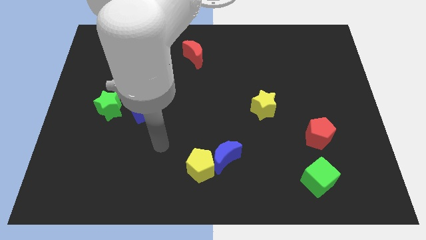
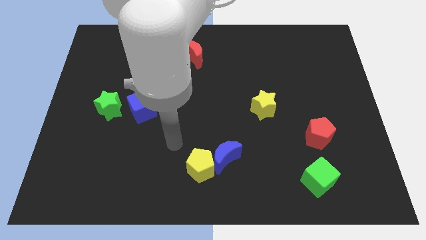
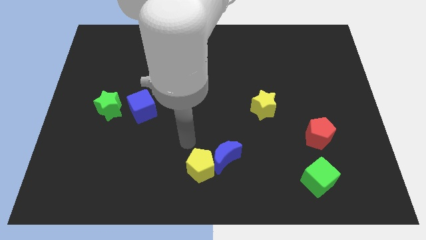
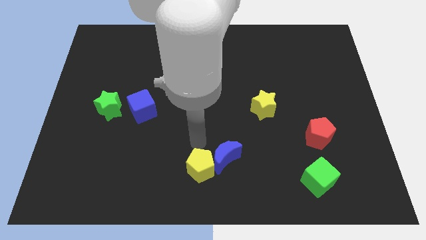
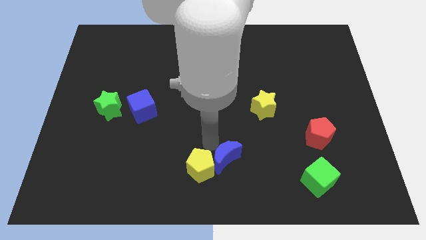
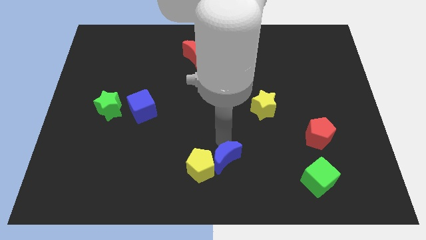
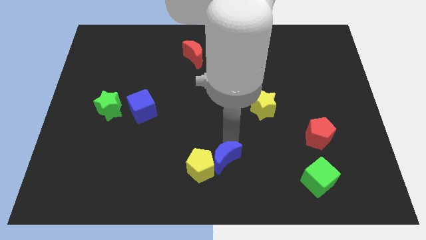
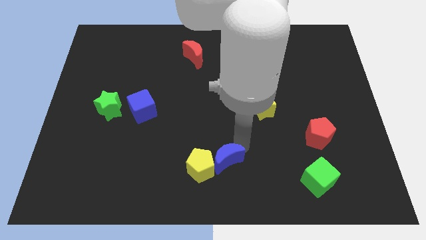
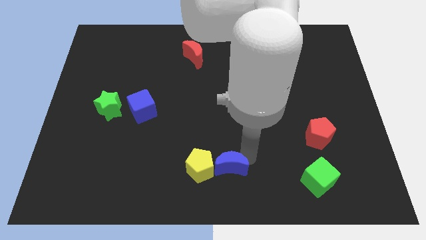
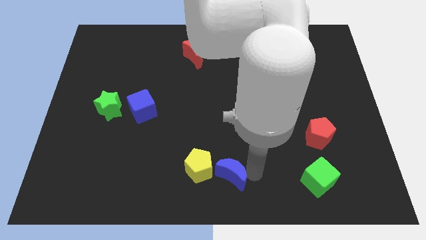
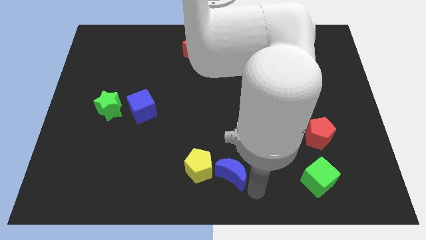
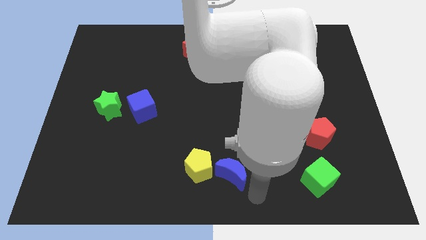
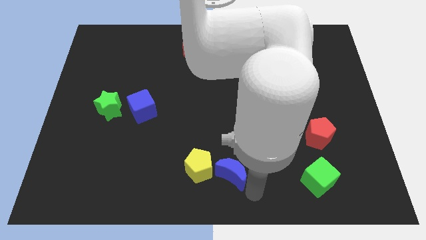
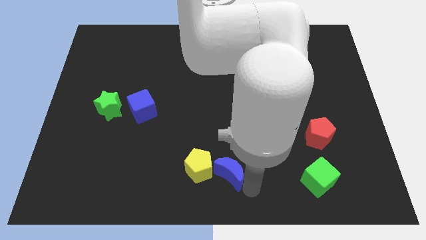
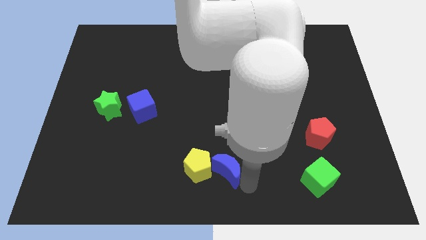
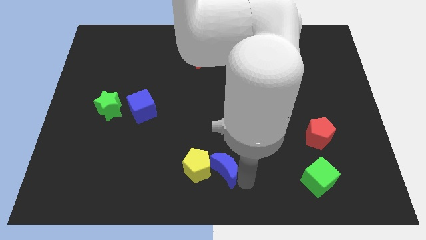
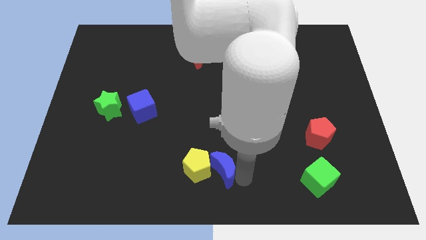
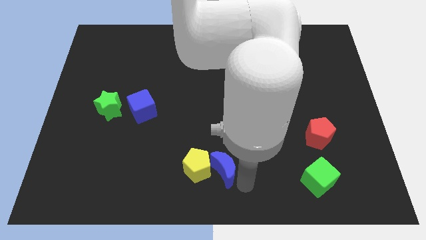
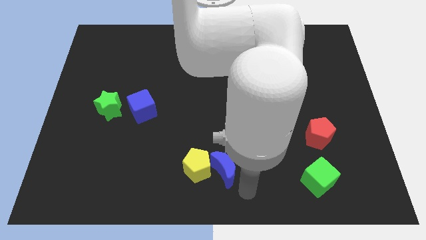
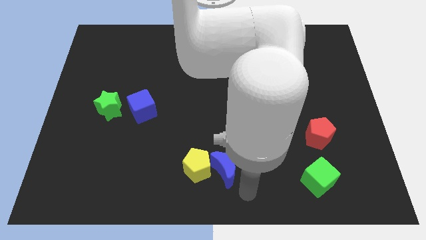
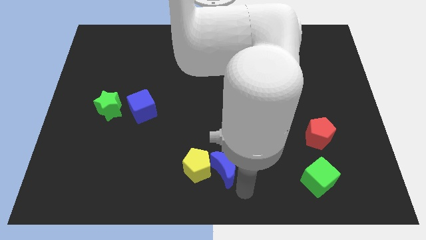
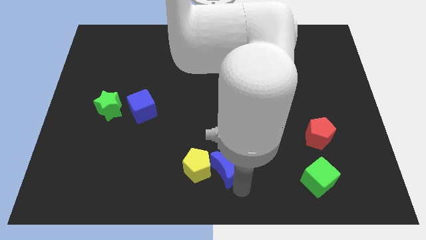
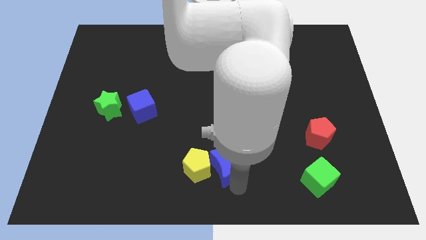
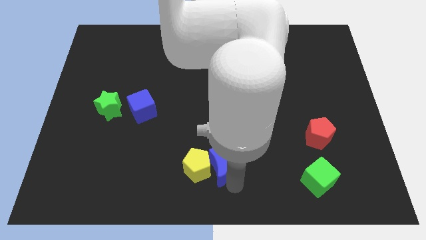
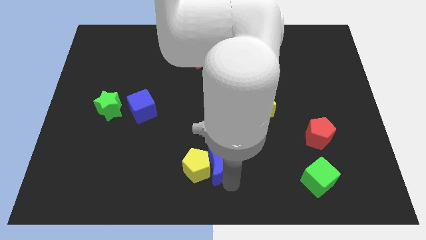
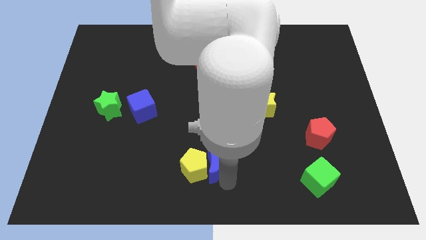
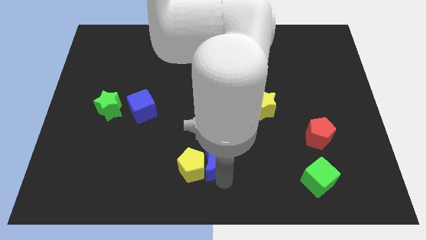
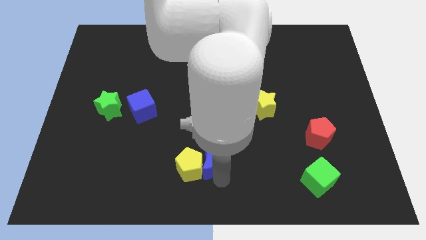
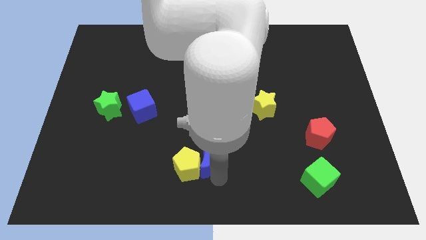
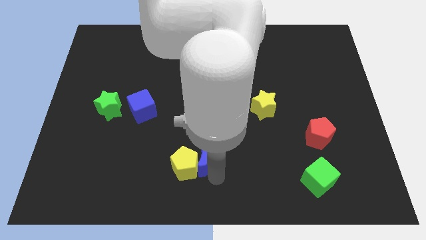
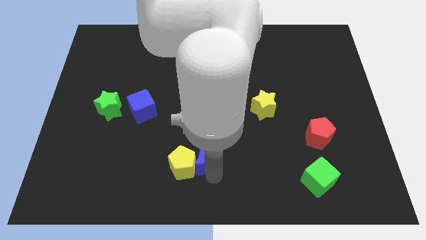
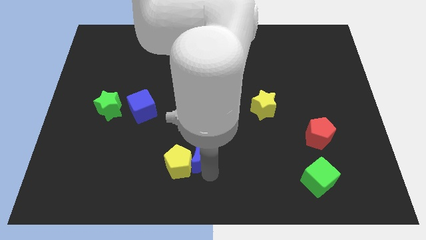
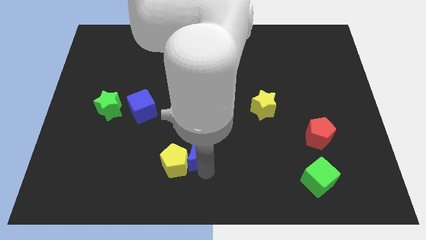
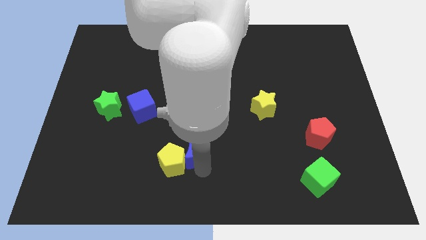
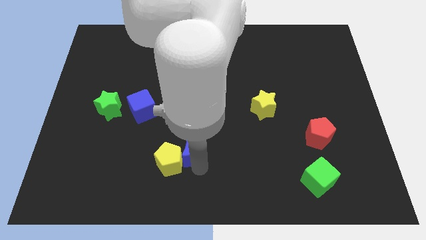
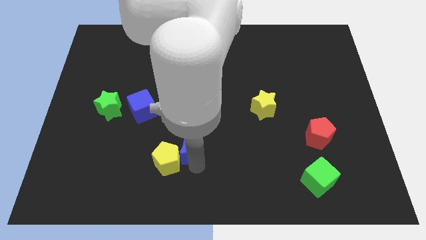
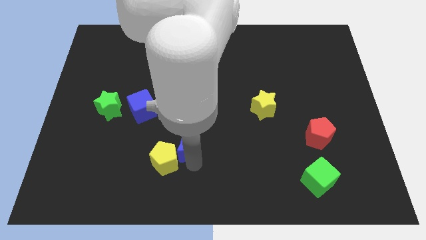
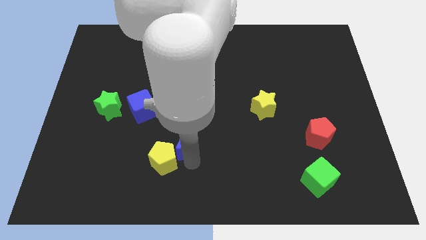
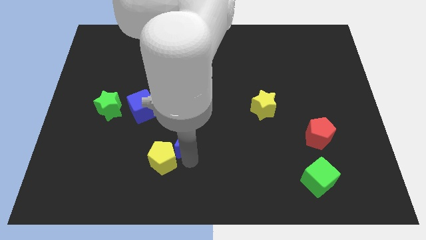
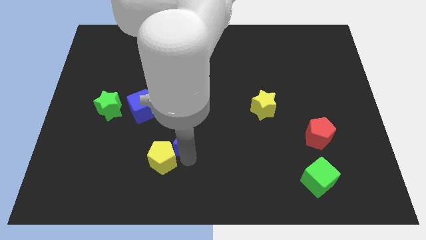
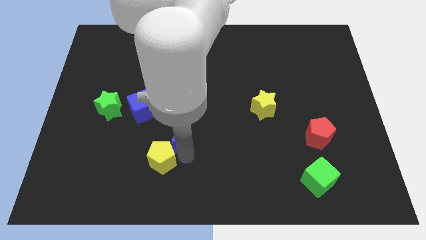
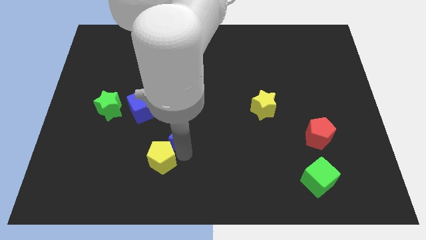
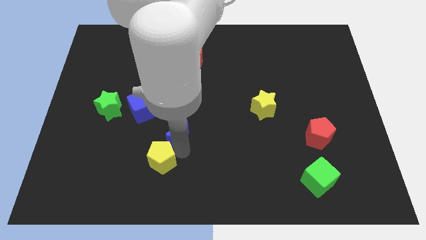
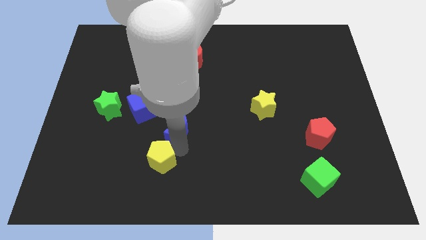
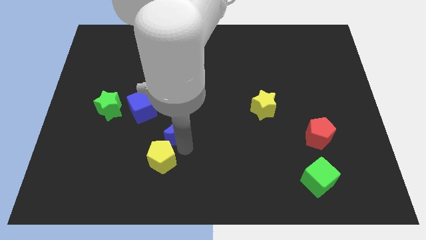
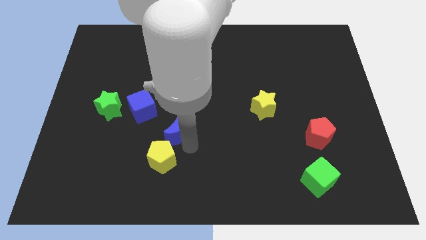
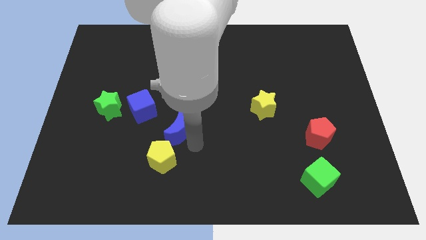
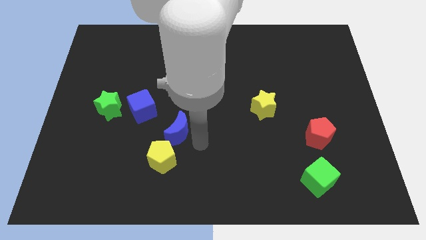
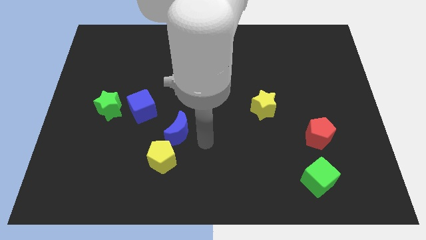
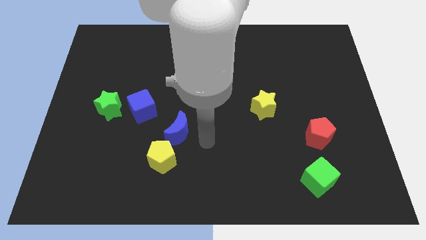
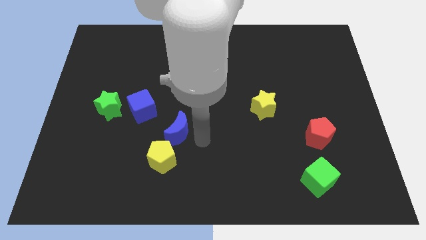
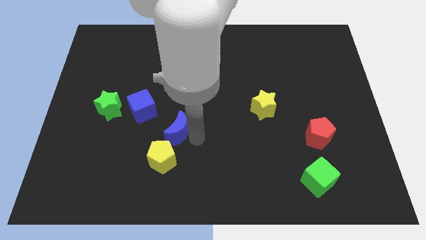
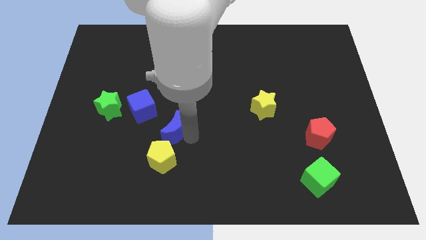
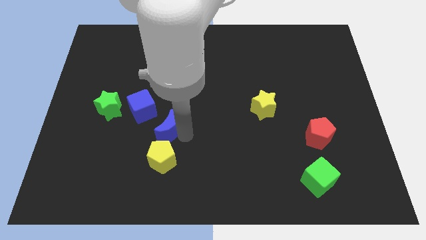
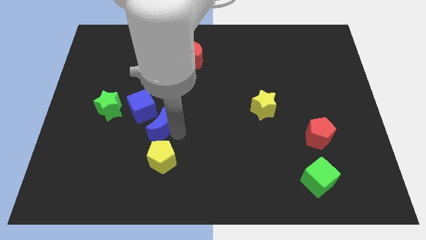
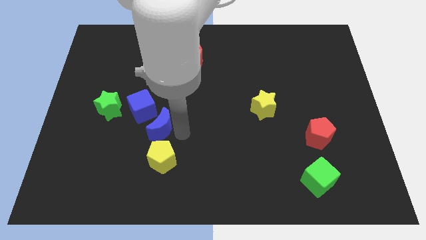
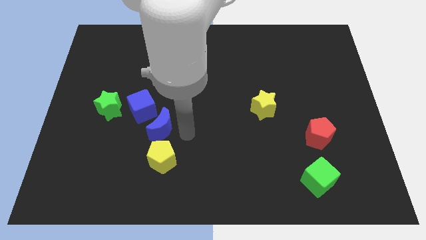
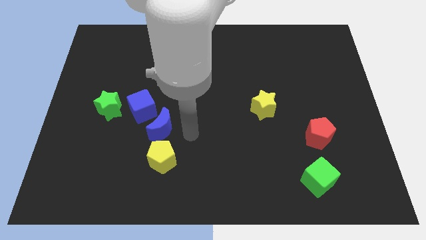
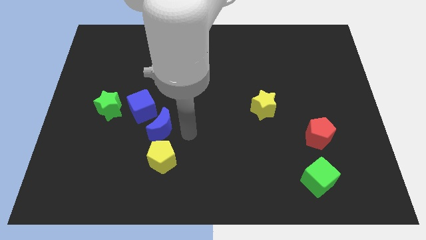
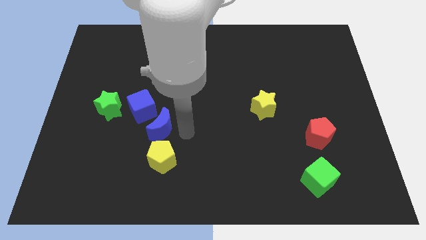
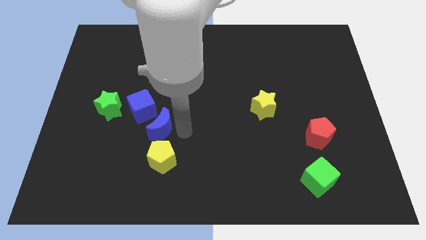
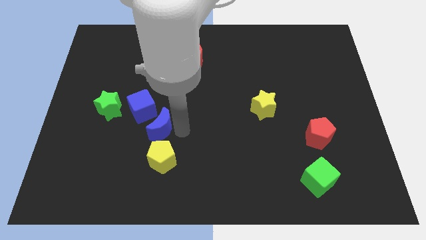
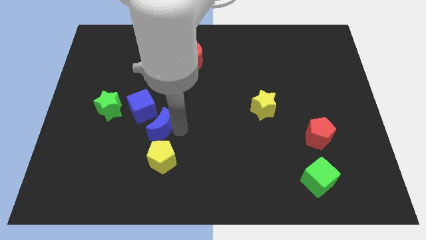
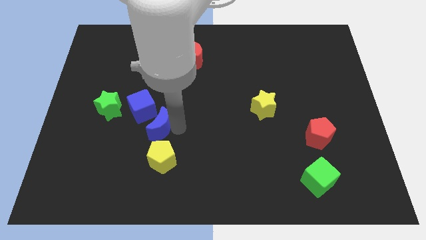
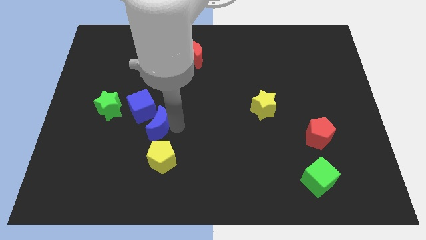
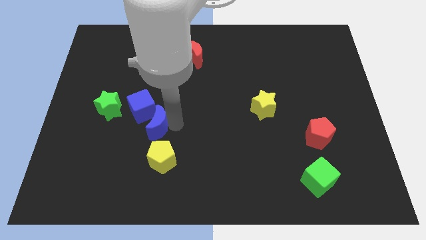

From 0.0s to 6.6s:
slide the blue moon to the right of the green star

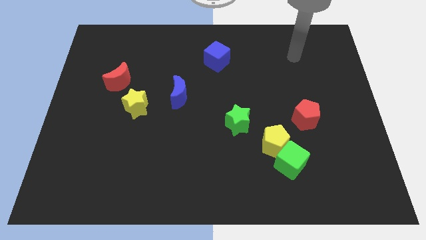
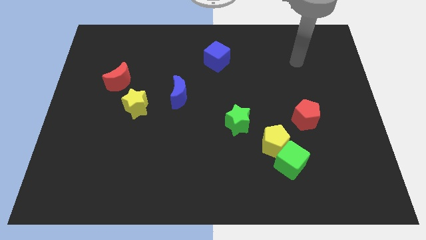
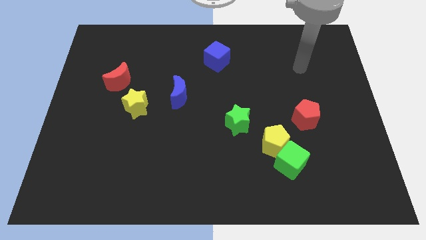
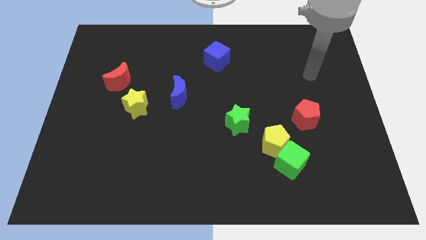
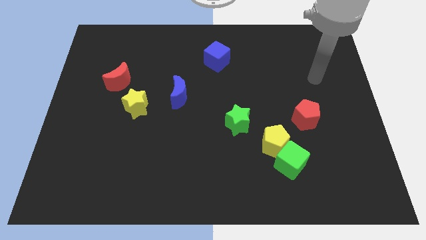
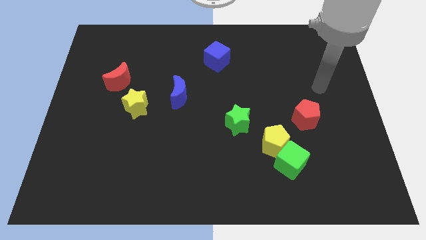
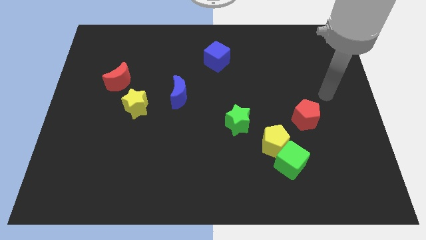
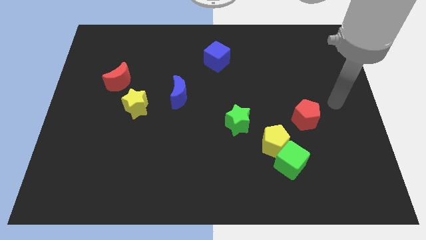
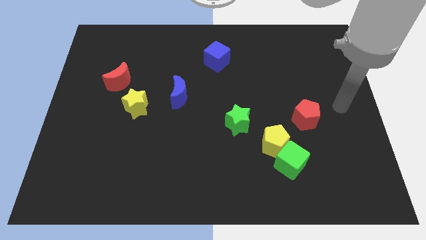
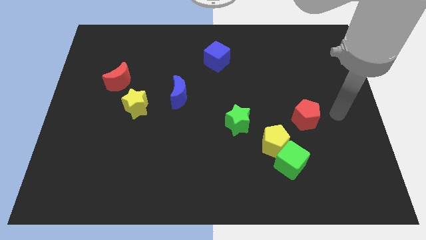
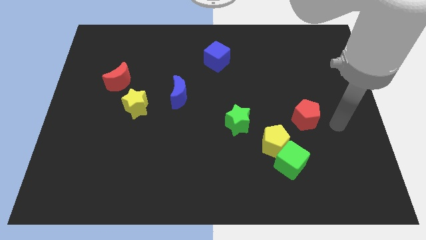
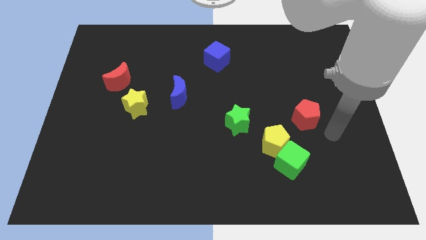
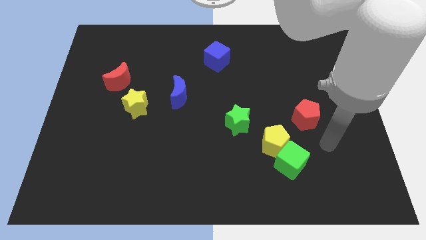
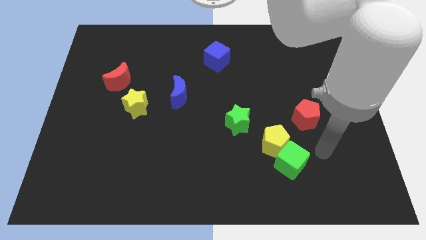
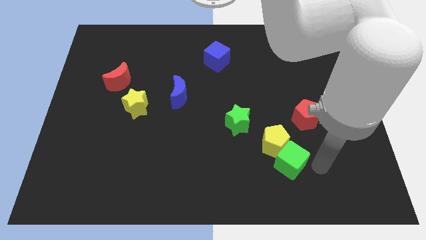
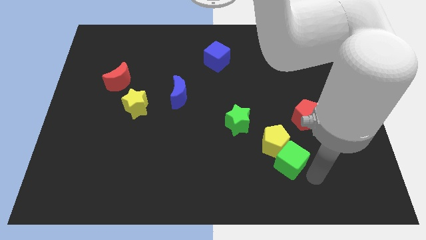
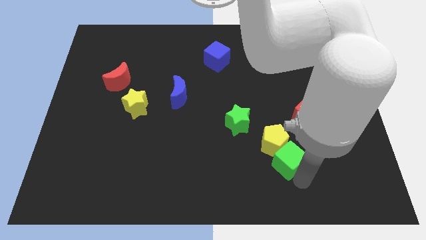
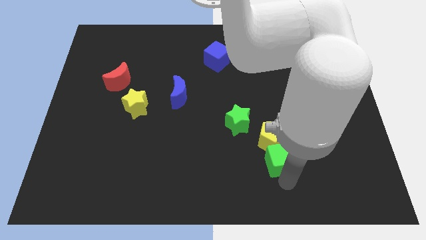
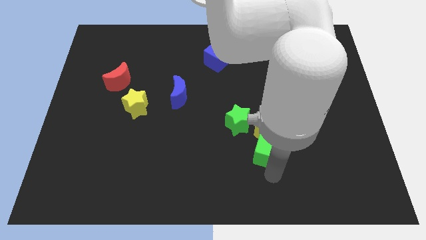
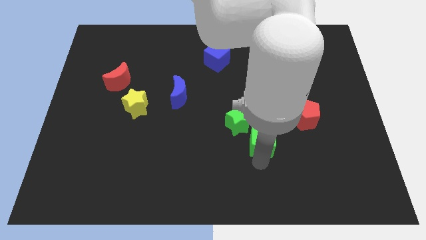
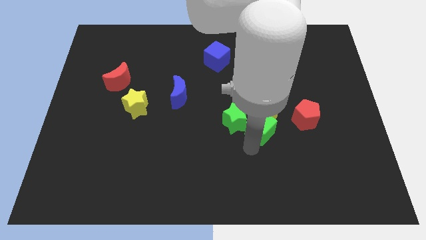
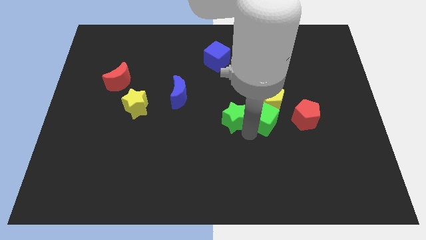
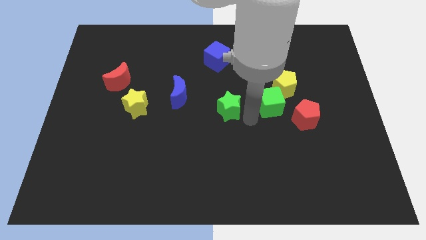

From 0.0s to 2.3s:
move the yellow pentagon above the red pentagon
